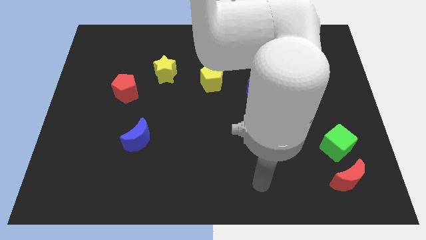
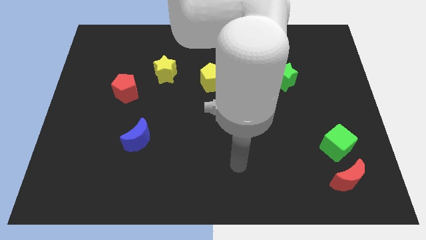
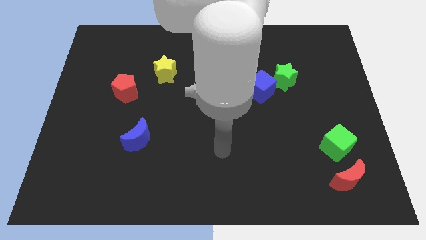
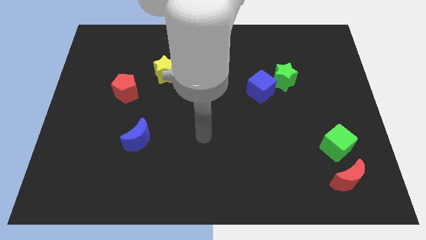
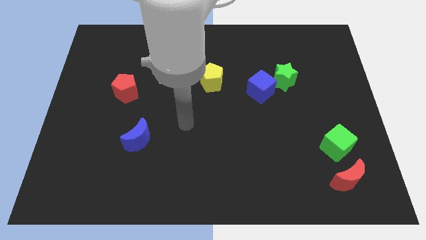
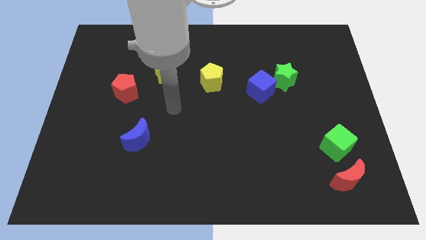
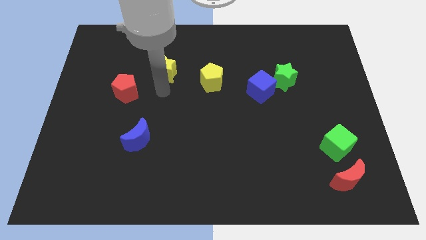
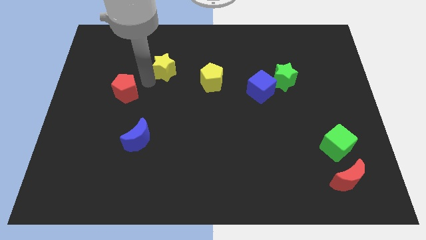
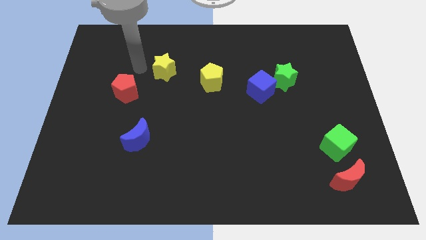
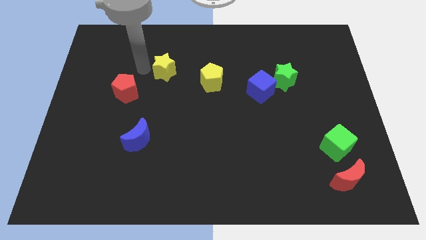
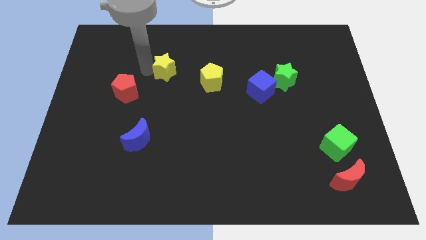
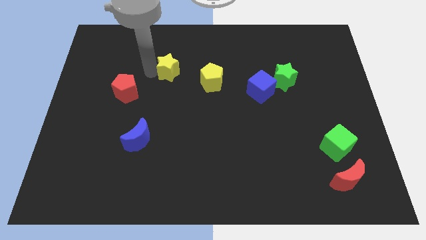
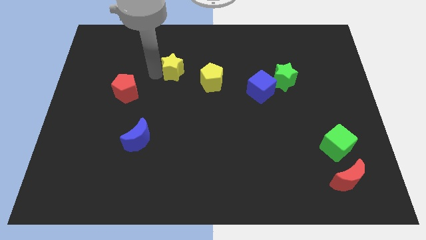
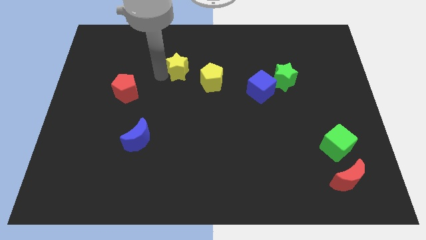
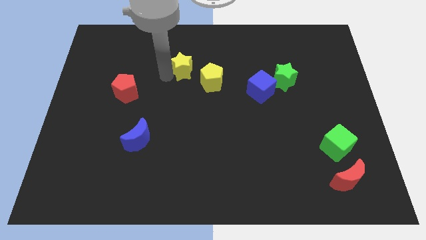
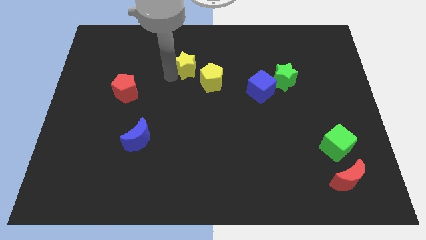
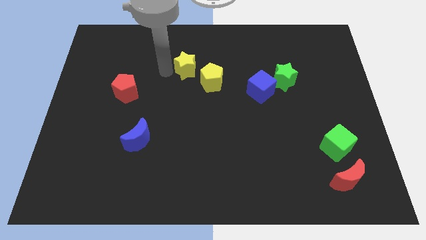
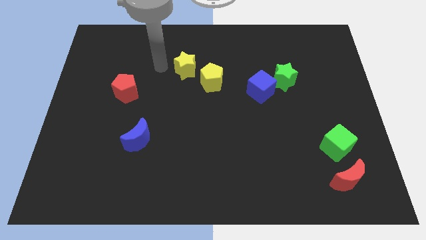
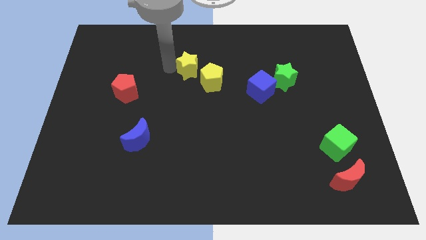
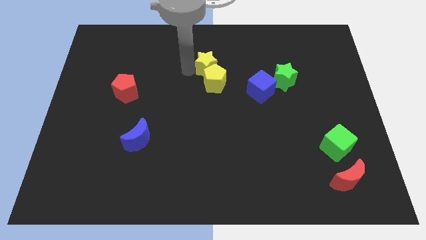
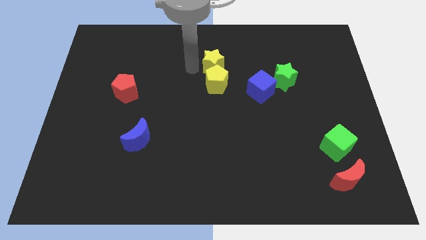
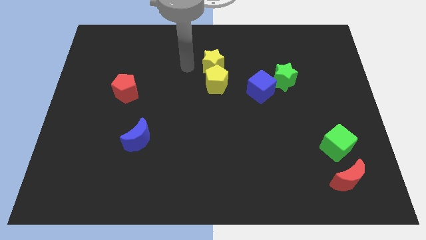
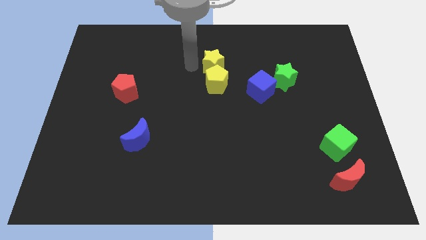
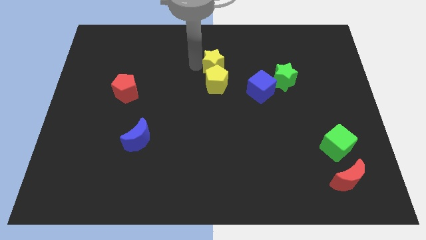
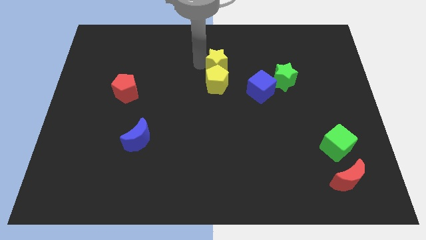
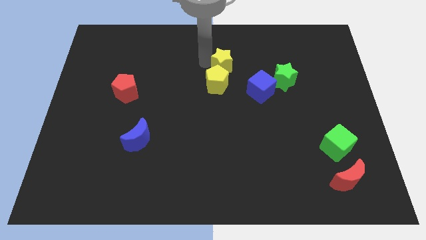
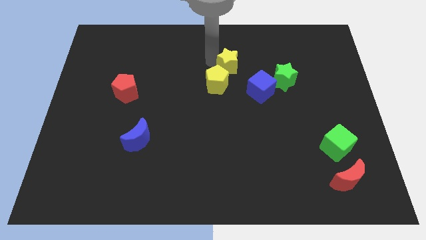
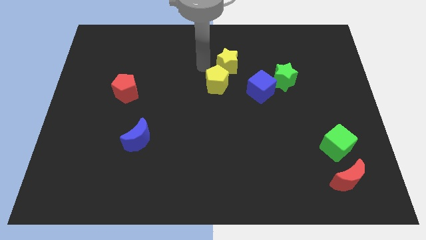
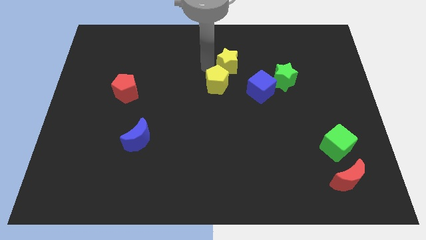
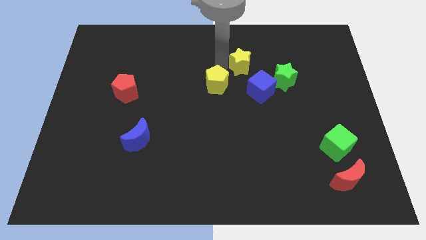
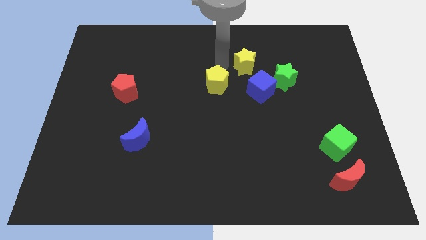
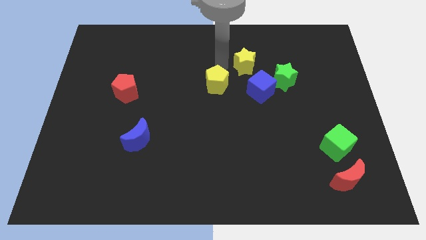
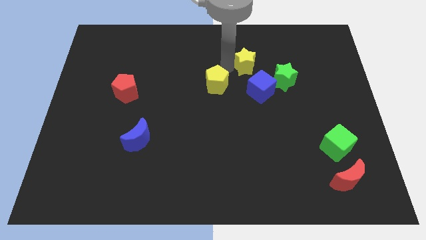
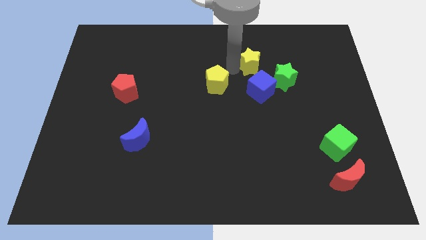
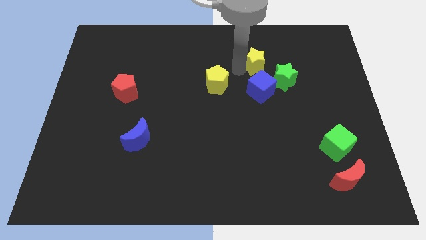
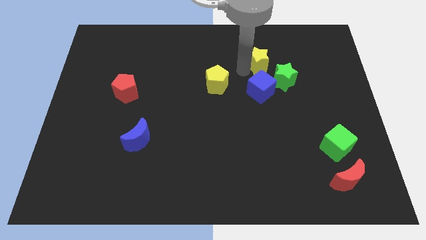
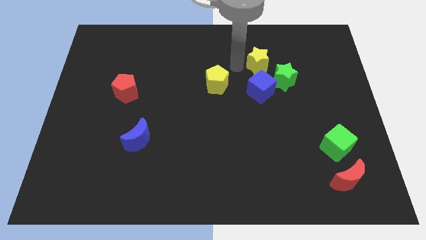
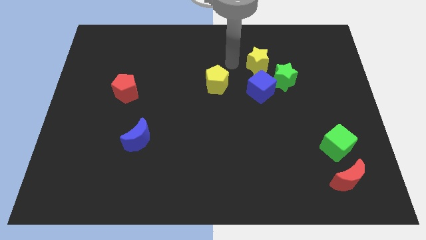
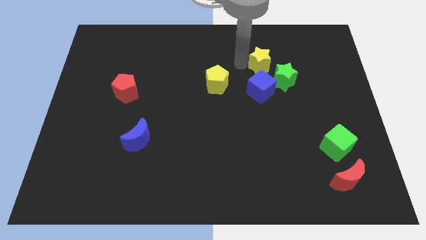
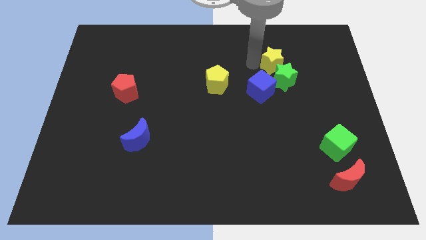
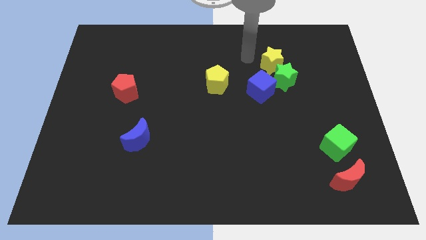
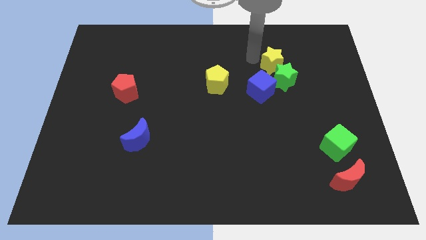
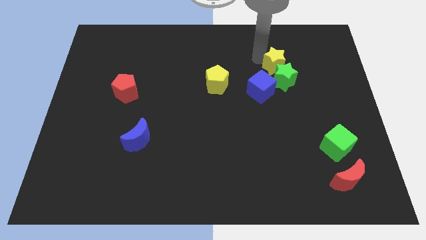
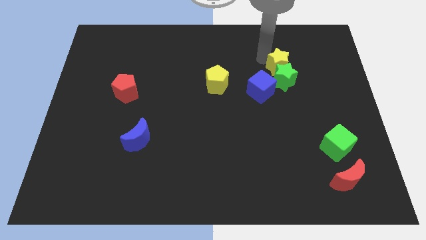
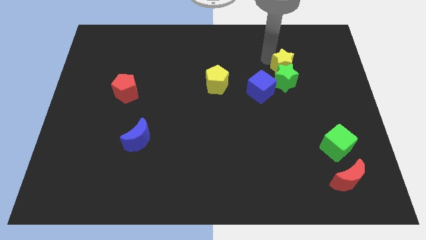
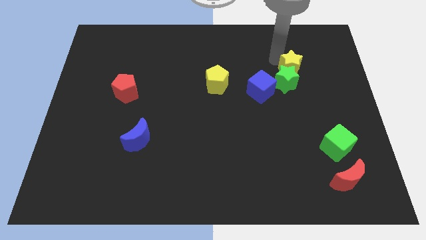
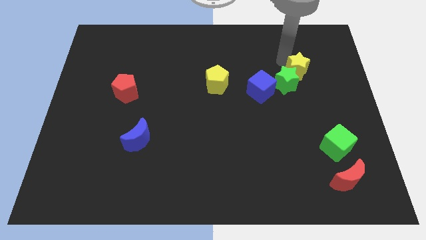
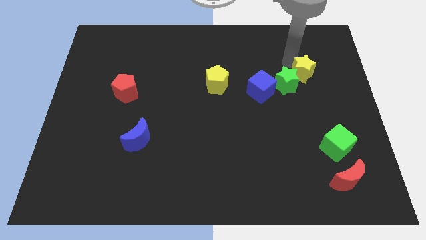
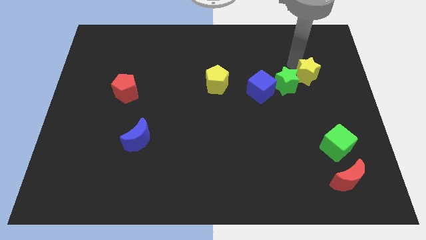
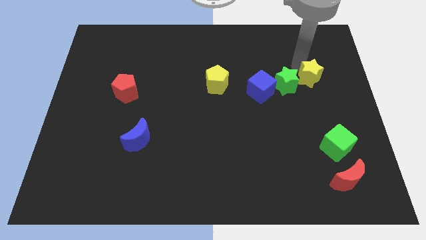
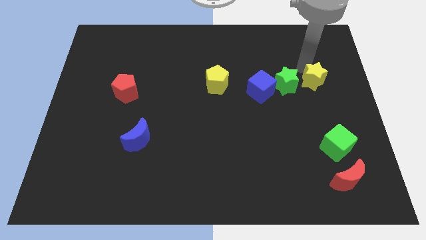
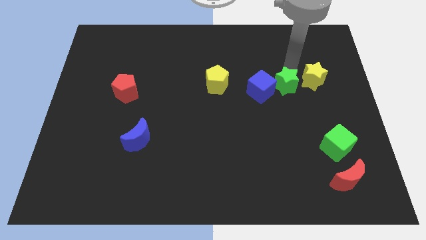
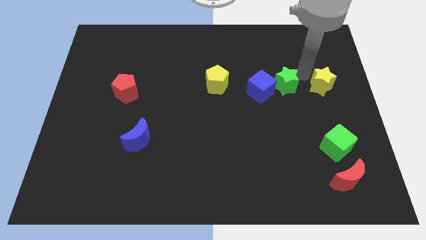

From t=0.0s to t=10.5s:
push the yellow star to the right side of the board

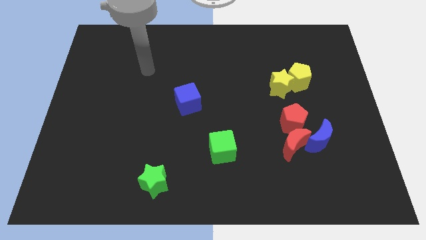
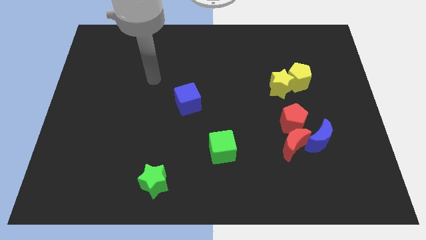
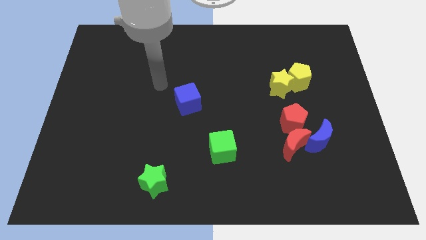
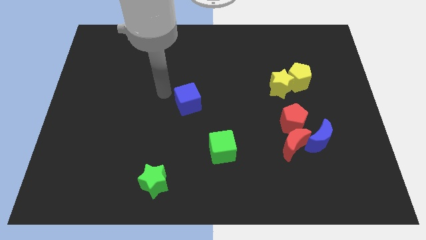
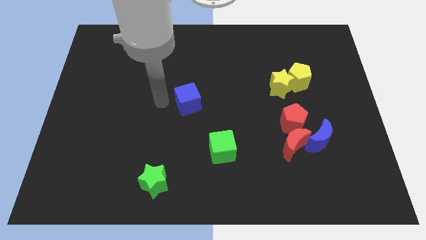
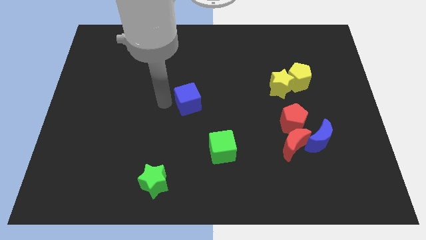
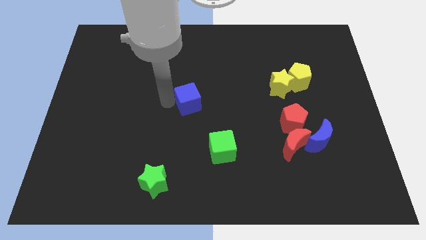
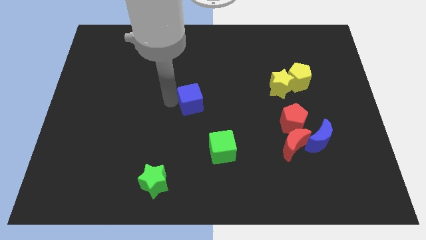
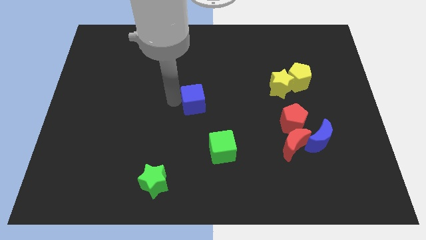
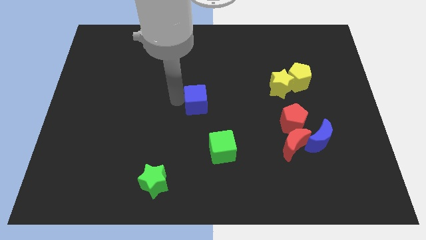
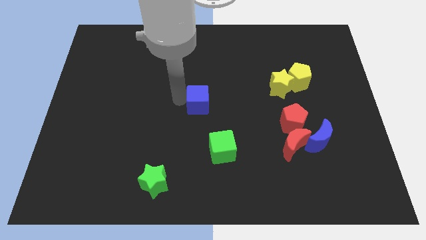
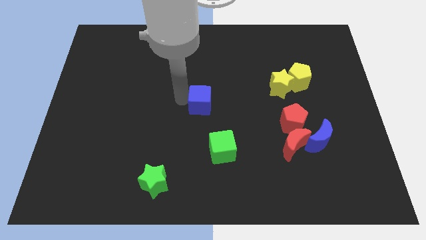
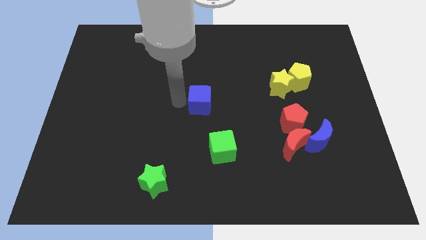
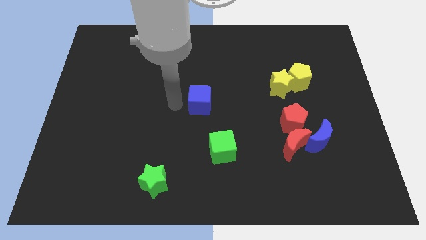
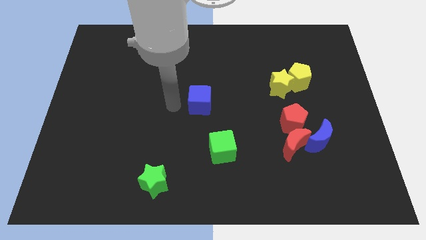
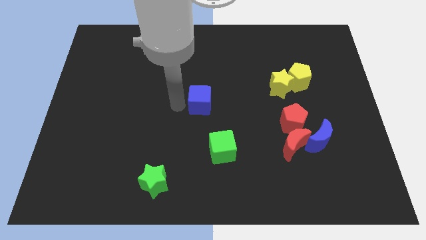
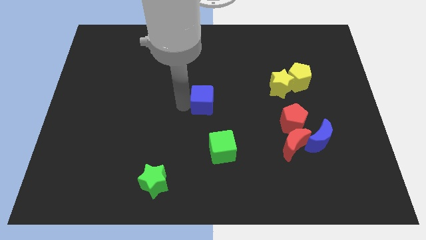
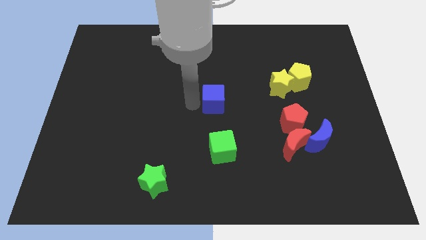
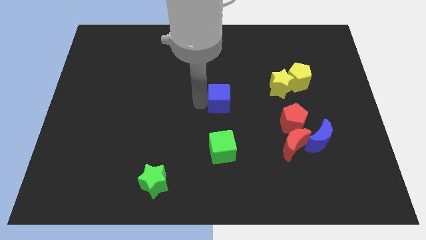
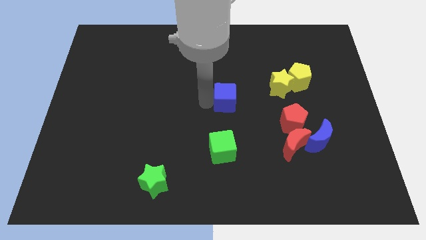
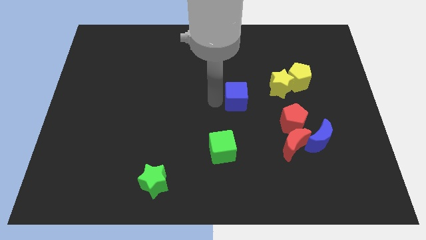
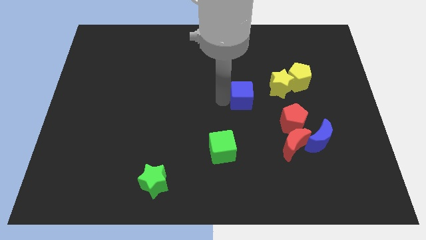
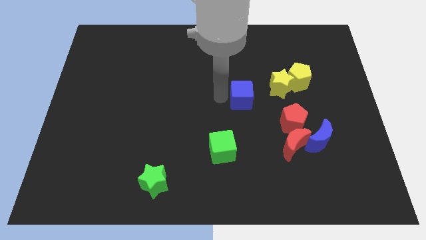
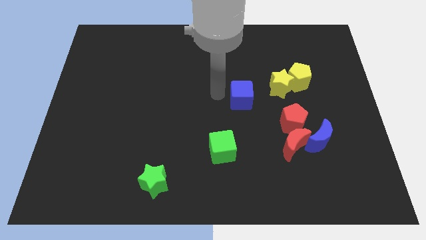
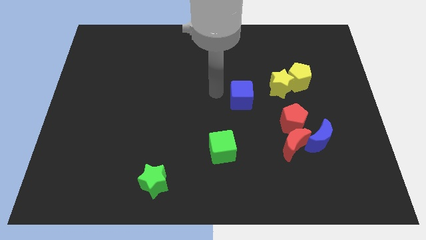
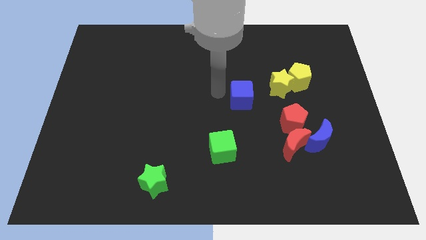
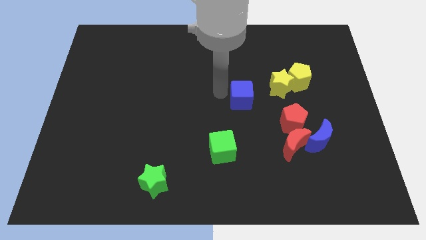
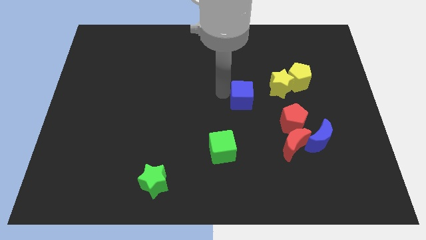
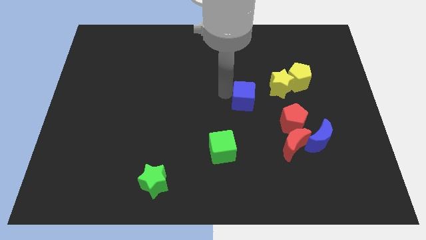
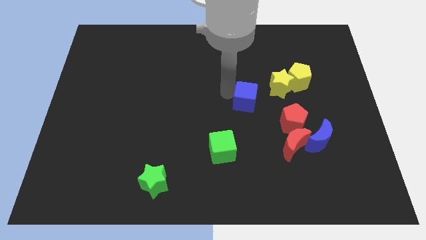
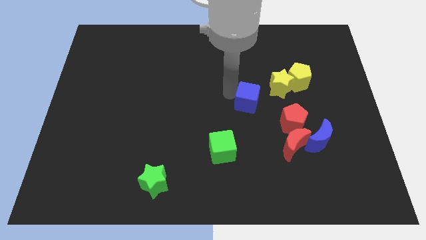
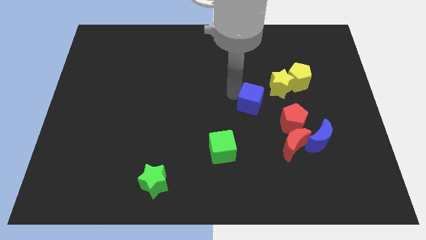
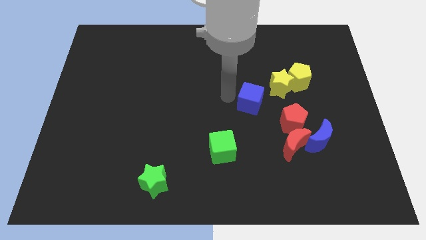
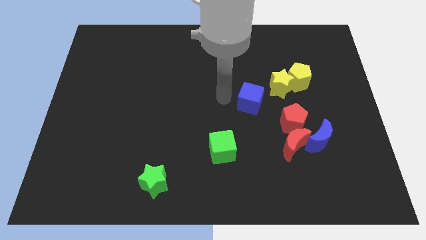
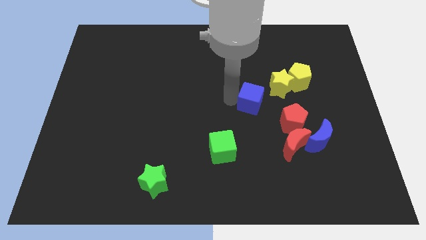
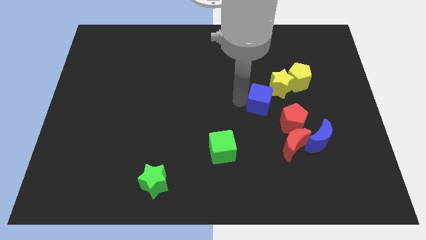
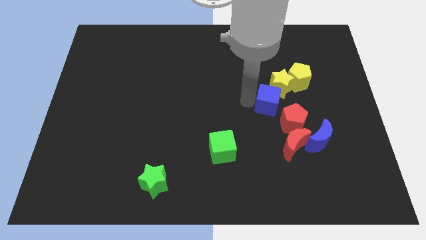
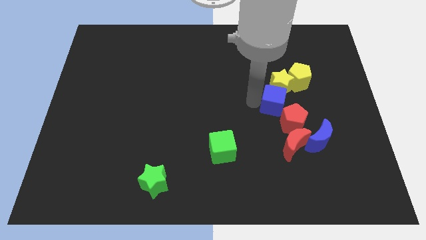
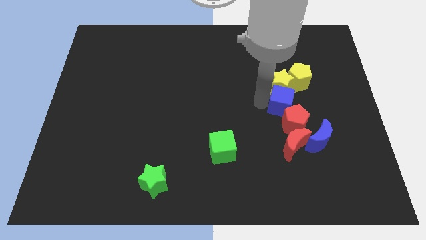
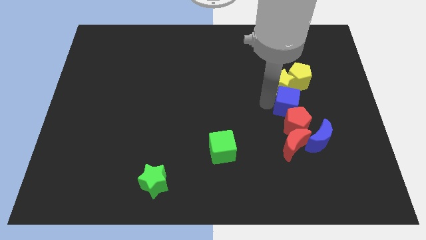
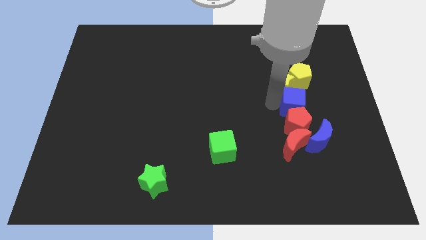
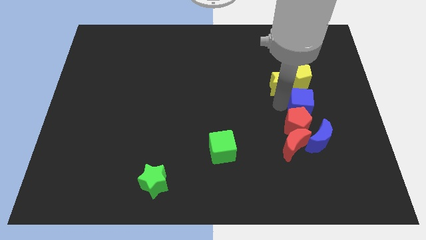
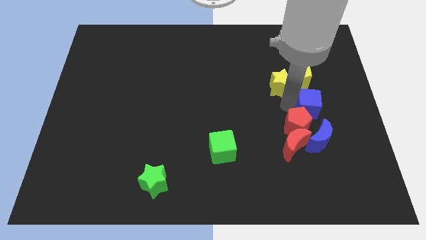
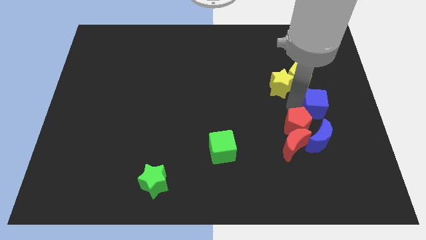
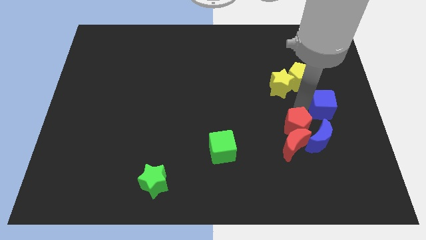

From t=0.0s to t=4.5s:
slide the blue cube to the right side
